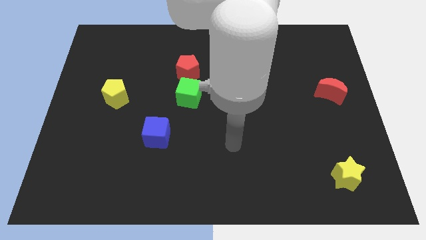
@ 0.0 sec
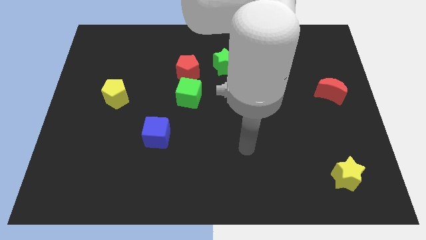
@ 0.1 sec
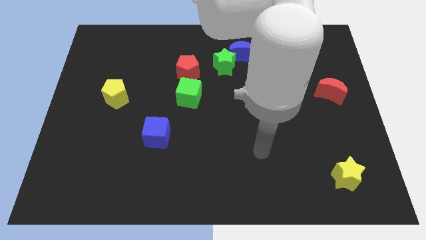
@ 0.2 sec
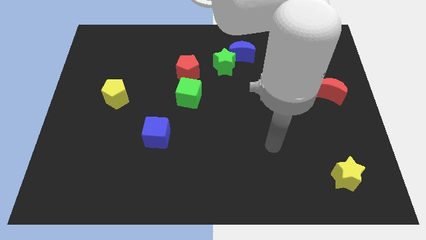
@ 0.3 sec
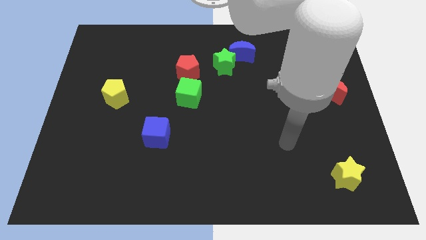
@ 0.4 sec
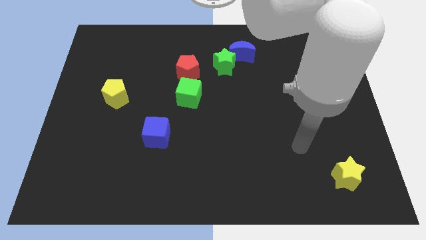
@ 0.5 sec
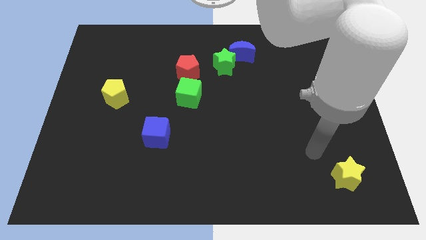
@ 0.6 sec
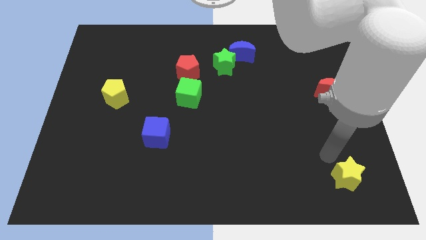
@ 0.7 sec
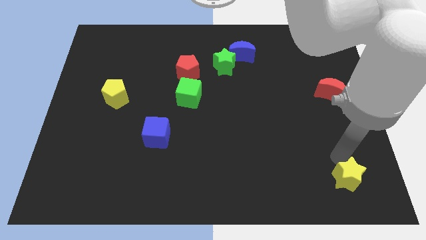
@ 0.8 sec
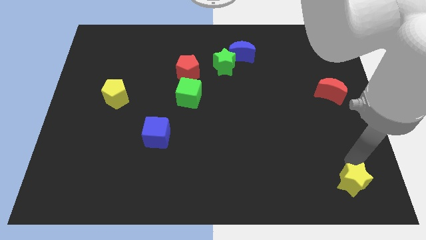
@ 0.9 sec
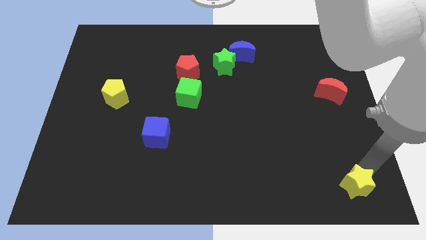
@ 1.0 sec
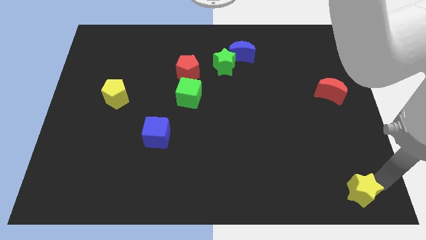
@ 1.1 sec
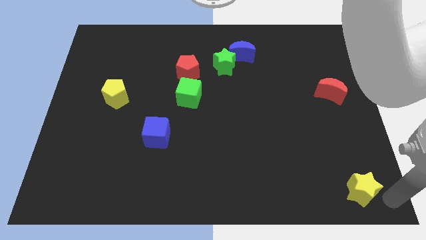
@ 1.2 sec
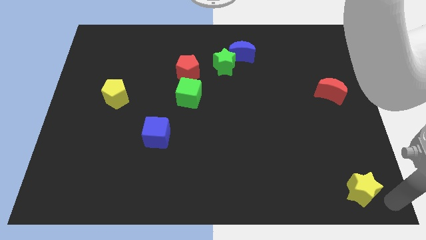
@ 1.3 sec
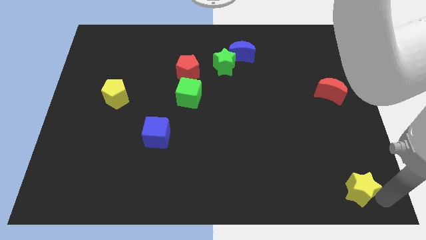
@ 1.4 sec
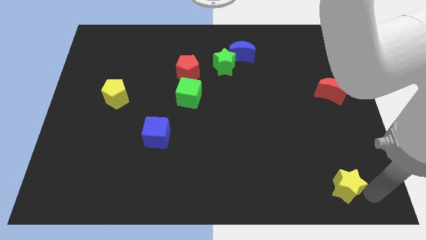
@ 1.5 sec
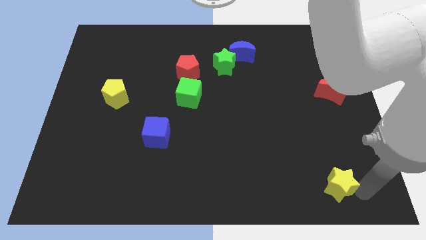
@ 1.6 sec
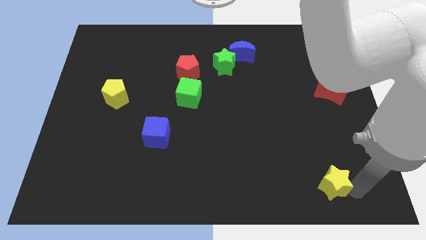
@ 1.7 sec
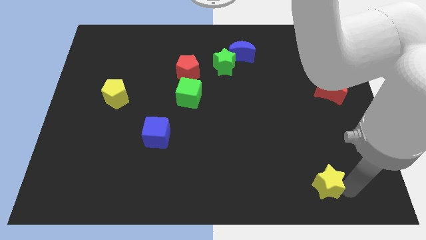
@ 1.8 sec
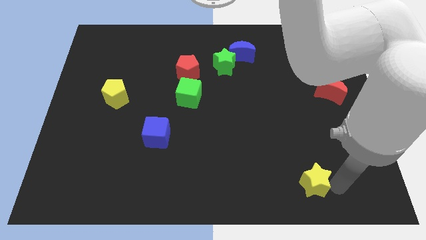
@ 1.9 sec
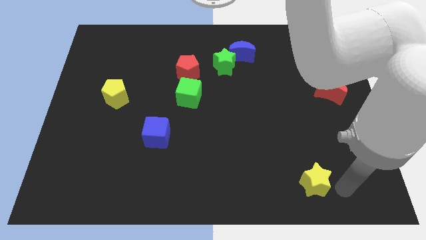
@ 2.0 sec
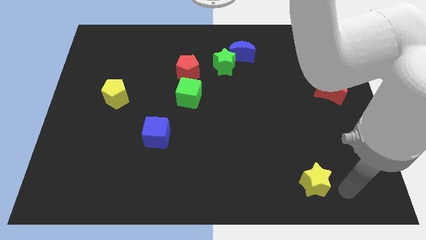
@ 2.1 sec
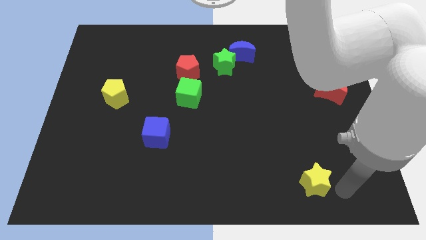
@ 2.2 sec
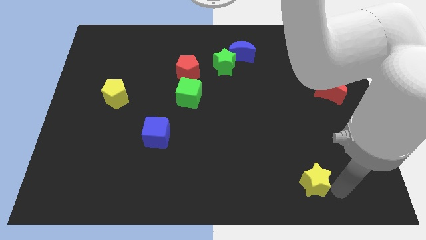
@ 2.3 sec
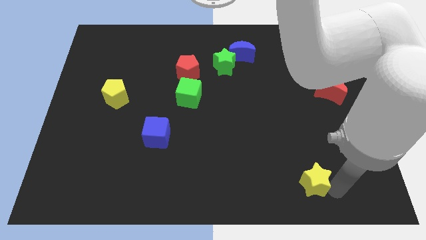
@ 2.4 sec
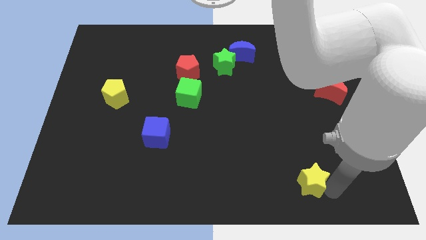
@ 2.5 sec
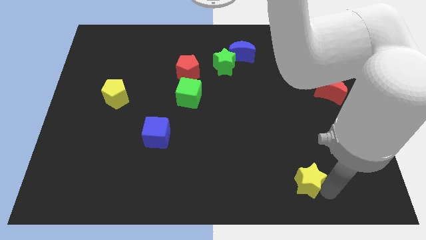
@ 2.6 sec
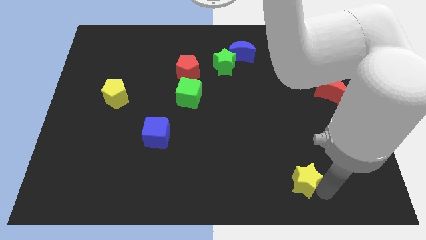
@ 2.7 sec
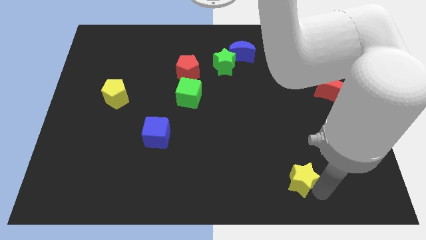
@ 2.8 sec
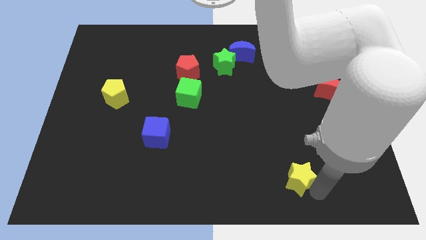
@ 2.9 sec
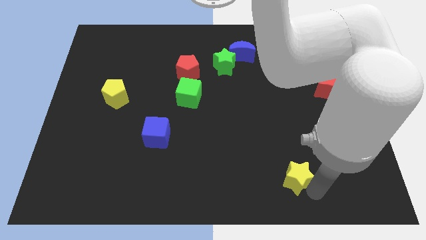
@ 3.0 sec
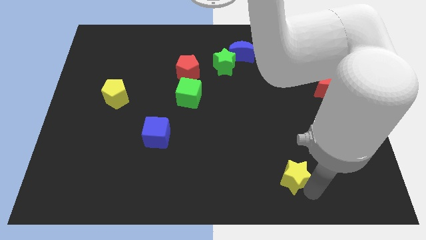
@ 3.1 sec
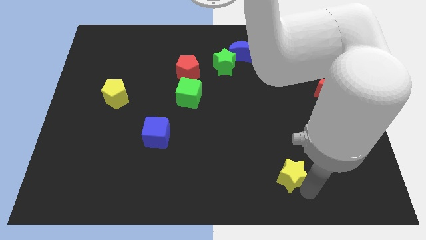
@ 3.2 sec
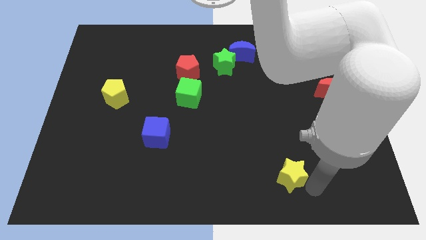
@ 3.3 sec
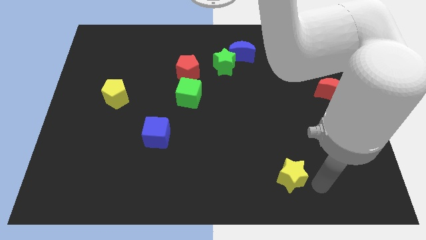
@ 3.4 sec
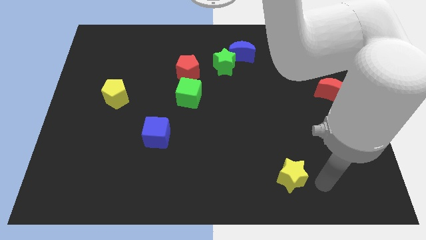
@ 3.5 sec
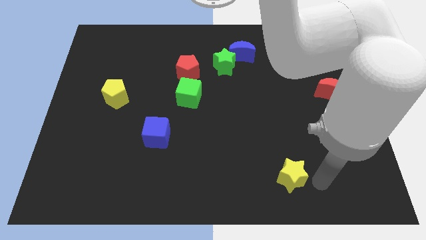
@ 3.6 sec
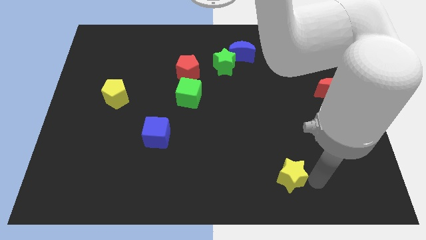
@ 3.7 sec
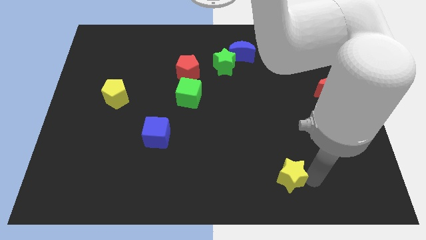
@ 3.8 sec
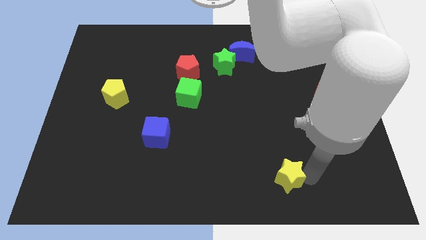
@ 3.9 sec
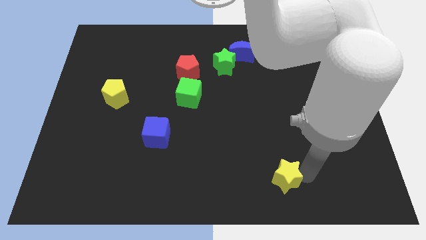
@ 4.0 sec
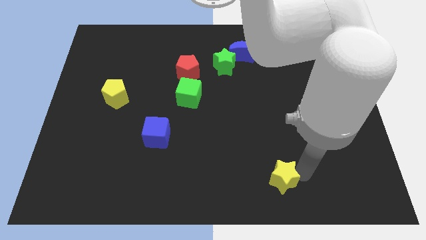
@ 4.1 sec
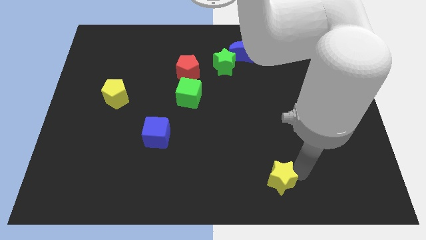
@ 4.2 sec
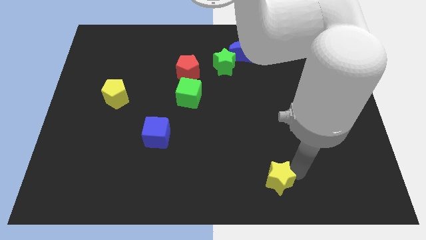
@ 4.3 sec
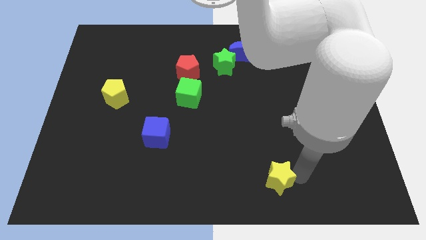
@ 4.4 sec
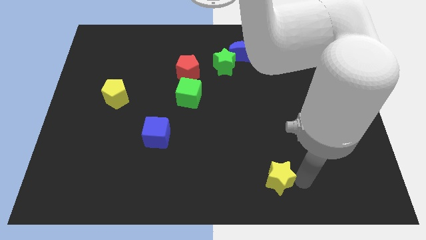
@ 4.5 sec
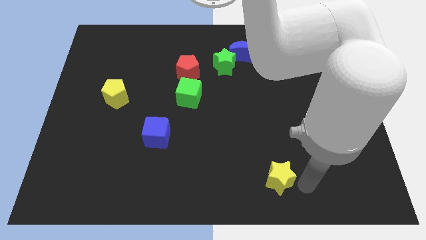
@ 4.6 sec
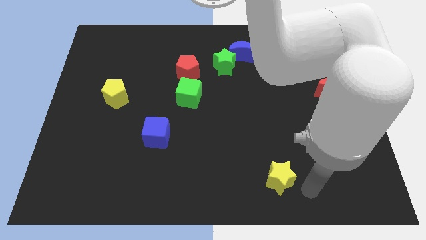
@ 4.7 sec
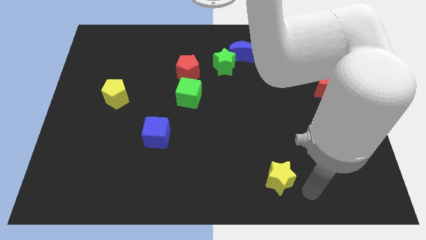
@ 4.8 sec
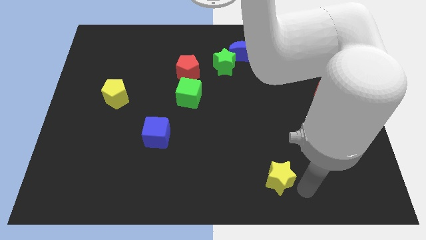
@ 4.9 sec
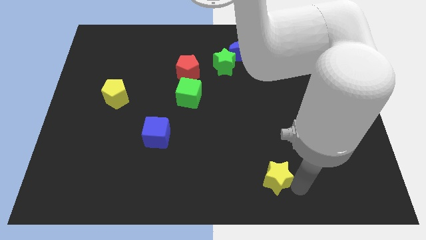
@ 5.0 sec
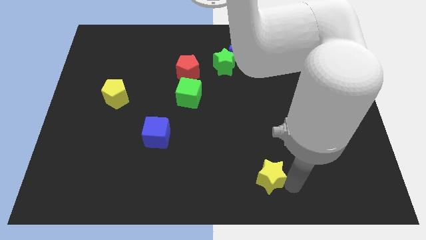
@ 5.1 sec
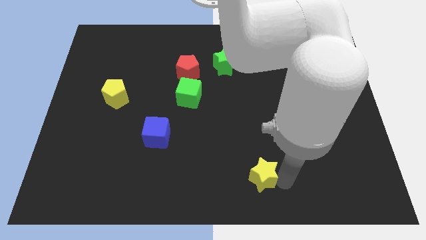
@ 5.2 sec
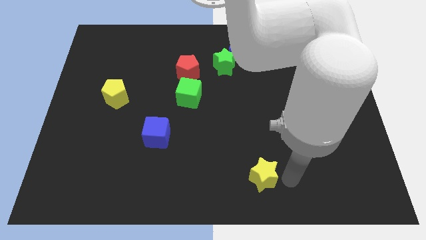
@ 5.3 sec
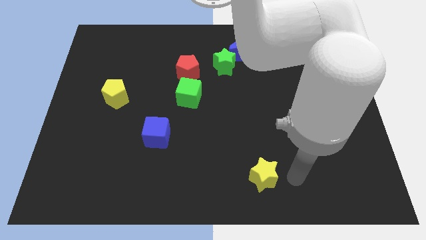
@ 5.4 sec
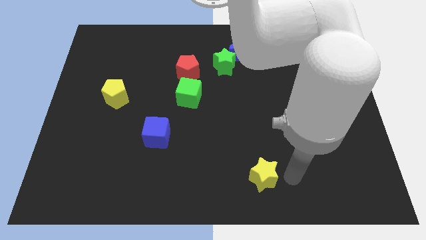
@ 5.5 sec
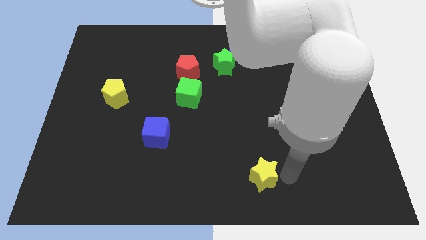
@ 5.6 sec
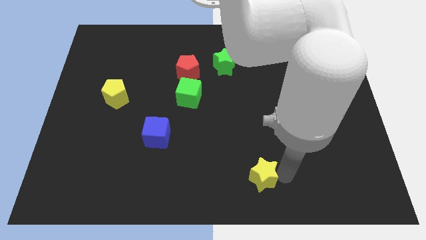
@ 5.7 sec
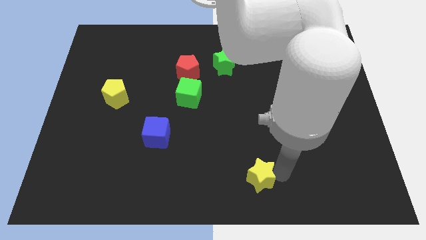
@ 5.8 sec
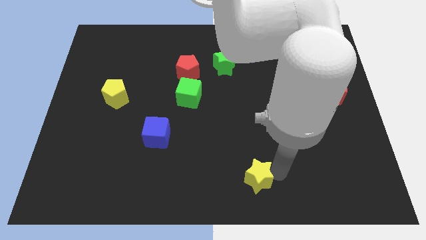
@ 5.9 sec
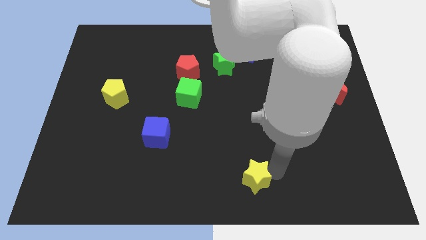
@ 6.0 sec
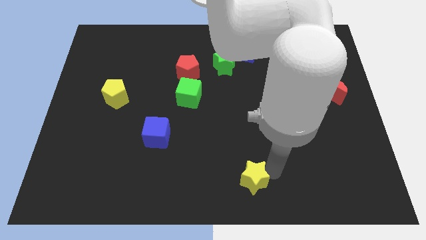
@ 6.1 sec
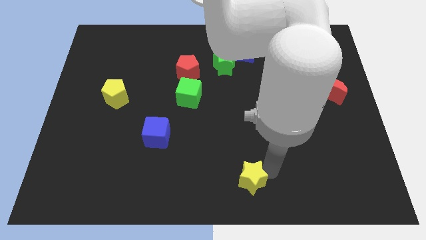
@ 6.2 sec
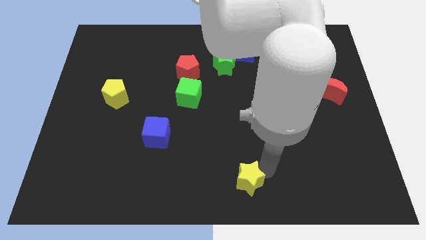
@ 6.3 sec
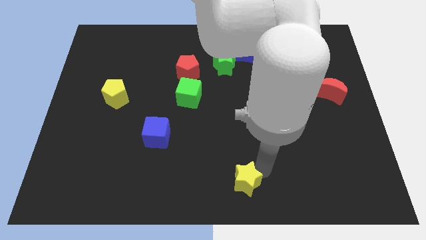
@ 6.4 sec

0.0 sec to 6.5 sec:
move the yellow star left

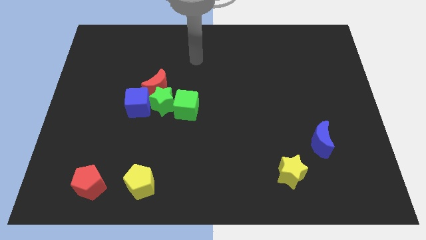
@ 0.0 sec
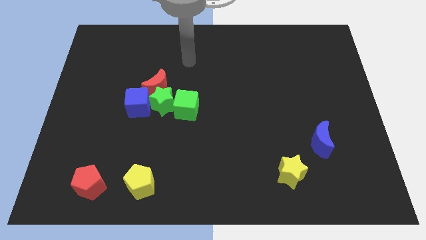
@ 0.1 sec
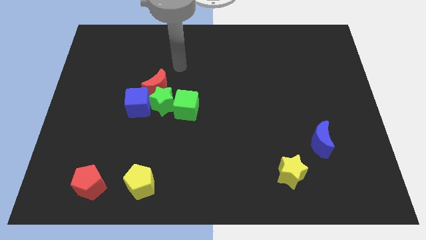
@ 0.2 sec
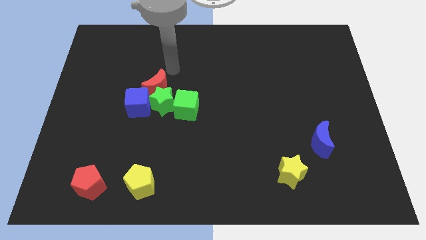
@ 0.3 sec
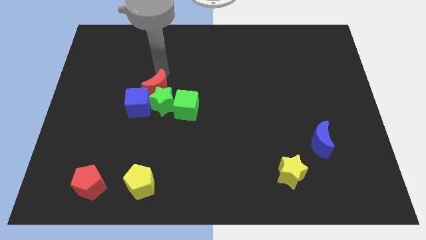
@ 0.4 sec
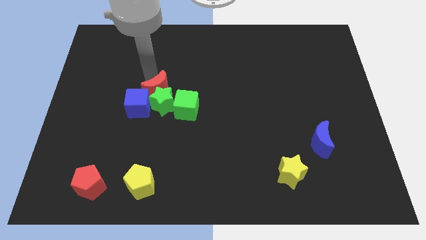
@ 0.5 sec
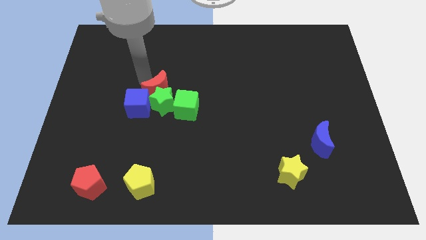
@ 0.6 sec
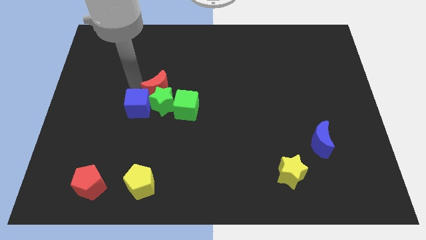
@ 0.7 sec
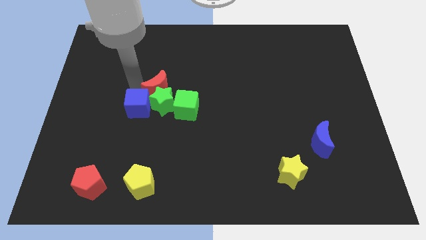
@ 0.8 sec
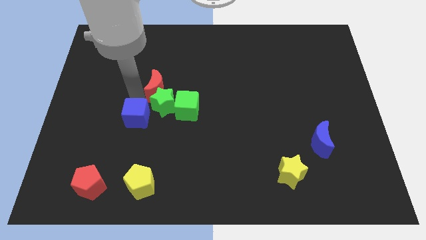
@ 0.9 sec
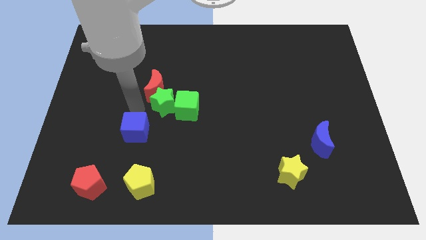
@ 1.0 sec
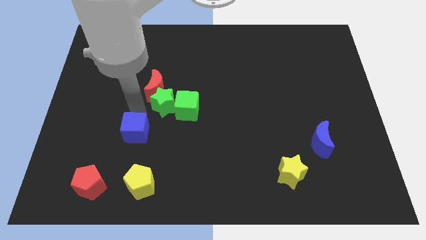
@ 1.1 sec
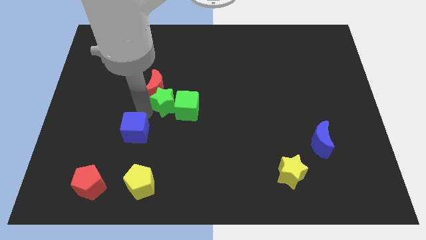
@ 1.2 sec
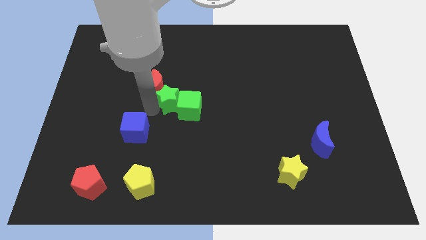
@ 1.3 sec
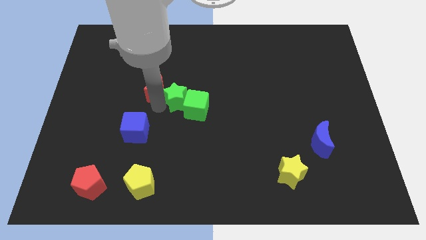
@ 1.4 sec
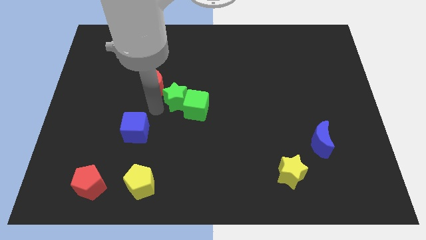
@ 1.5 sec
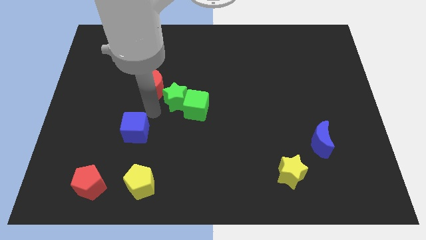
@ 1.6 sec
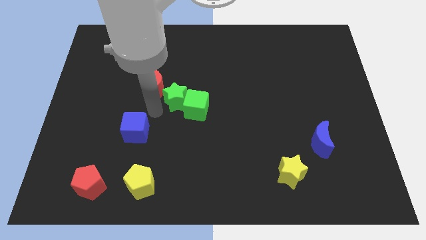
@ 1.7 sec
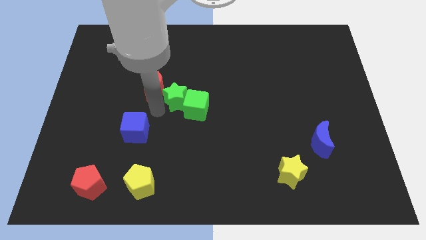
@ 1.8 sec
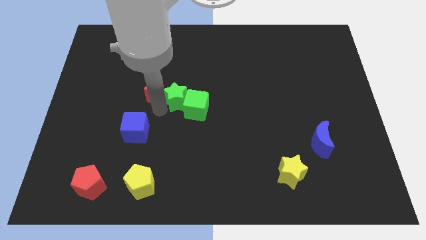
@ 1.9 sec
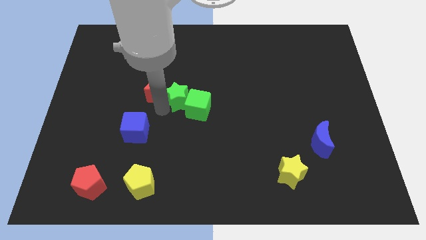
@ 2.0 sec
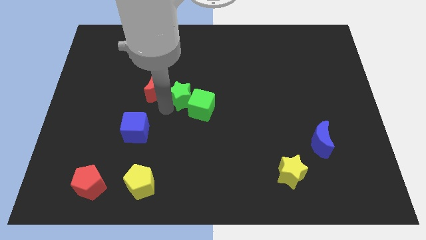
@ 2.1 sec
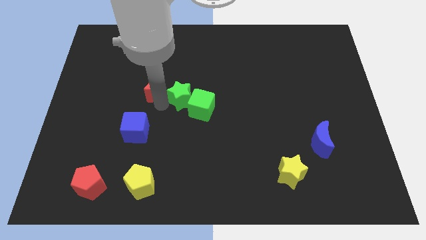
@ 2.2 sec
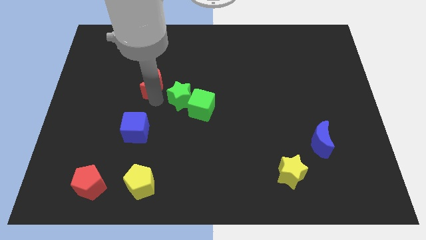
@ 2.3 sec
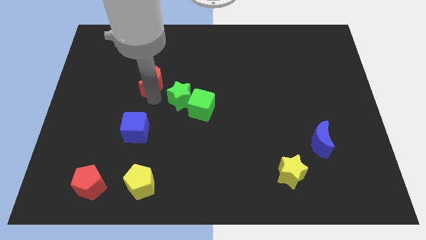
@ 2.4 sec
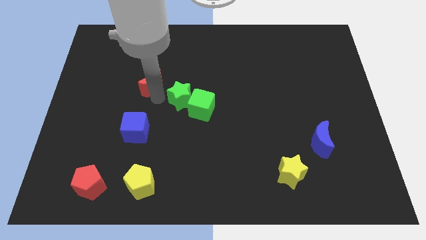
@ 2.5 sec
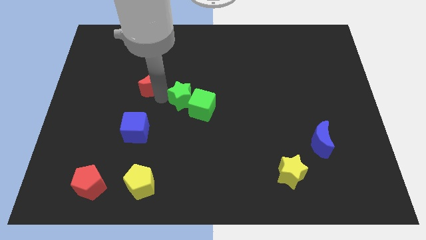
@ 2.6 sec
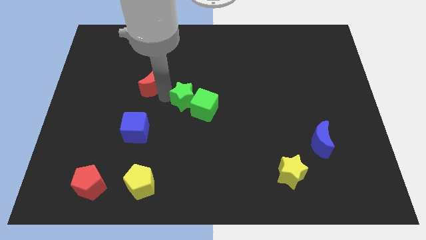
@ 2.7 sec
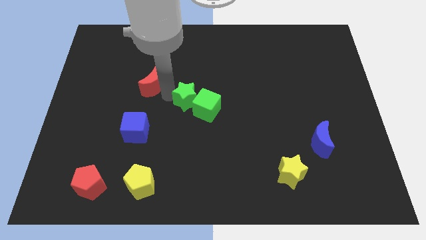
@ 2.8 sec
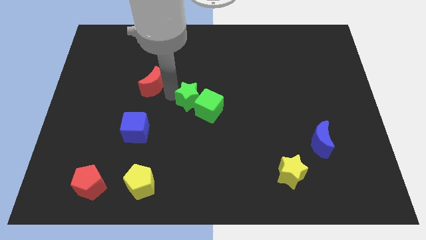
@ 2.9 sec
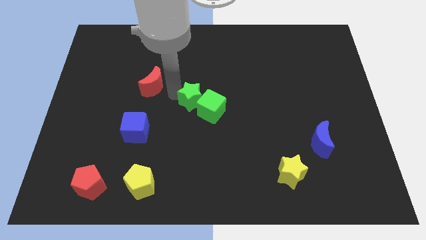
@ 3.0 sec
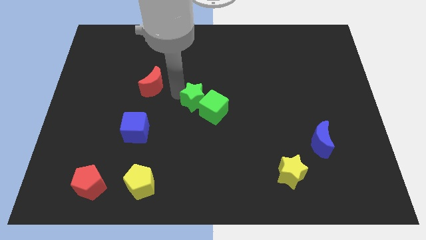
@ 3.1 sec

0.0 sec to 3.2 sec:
slide the green star to the right slightly
